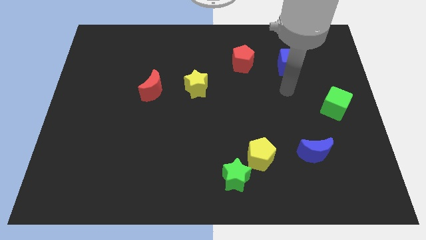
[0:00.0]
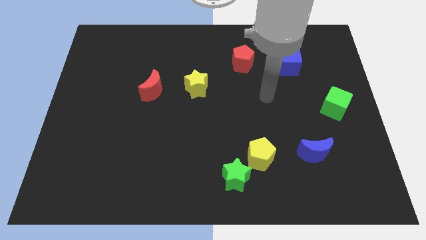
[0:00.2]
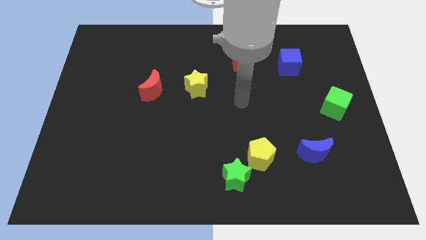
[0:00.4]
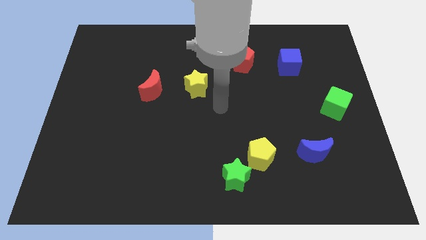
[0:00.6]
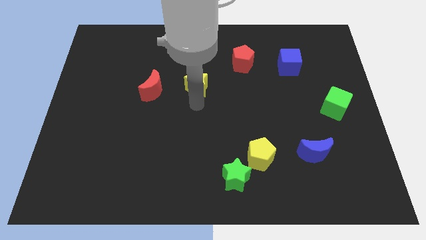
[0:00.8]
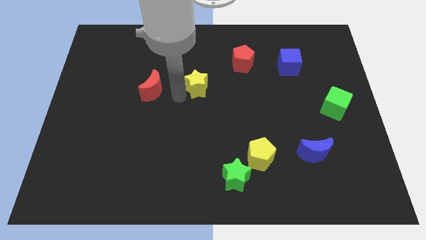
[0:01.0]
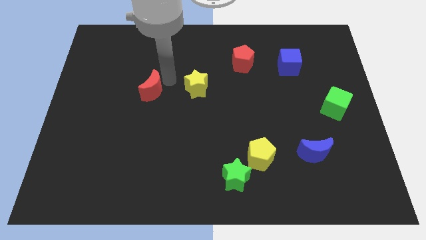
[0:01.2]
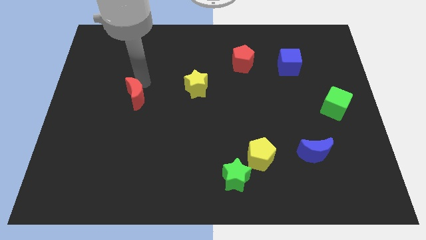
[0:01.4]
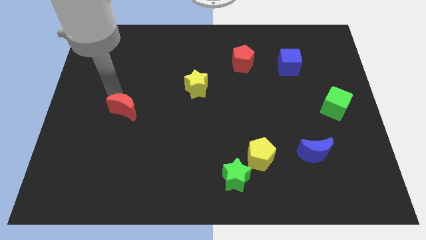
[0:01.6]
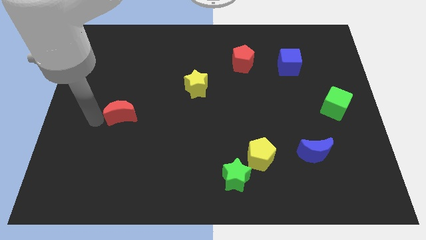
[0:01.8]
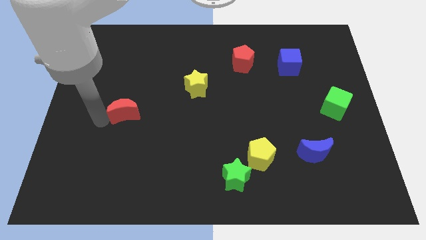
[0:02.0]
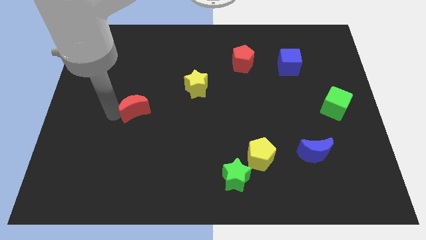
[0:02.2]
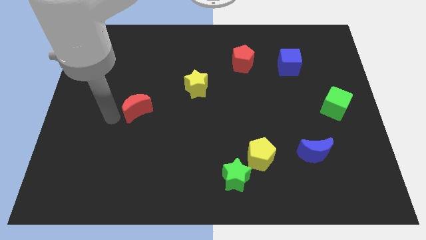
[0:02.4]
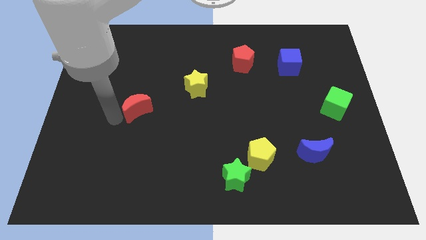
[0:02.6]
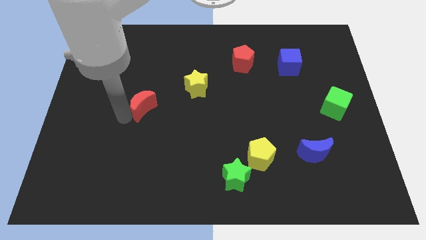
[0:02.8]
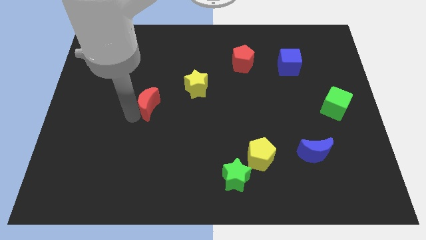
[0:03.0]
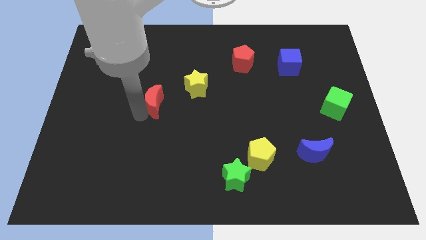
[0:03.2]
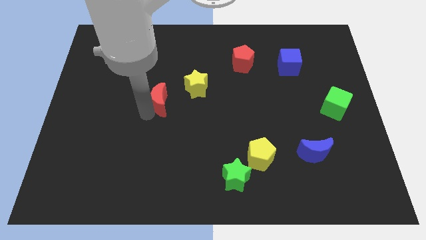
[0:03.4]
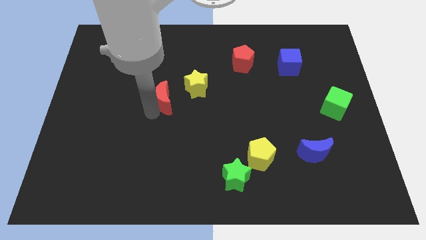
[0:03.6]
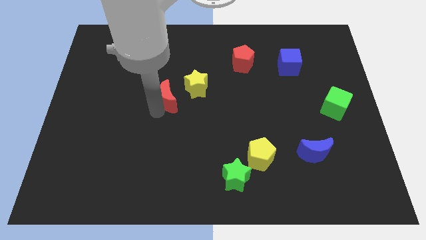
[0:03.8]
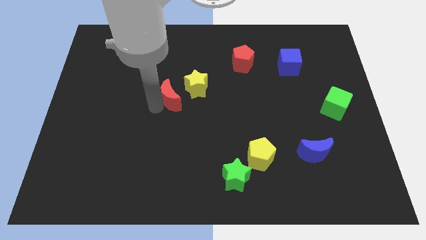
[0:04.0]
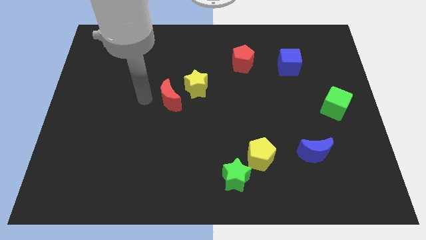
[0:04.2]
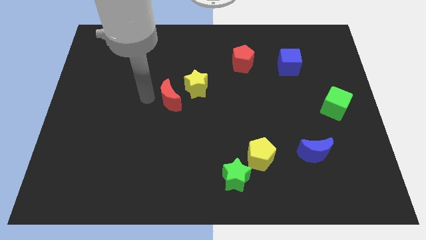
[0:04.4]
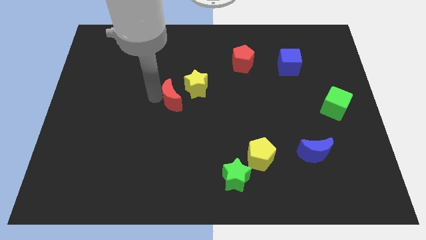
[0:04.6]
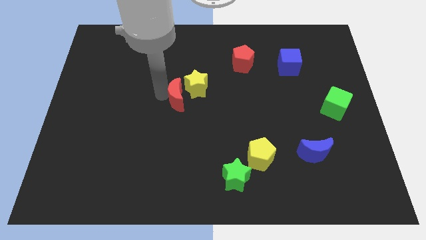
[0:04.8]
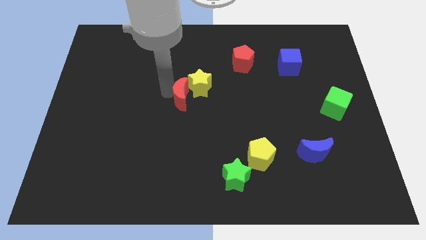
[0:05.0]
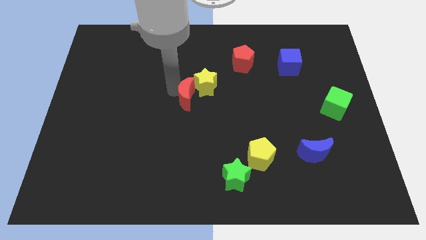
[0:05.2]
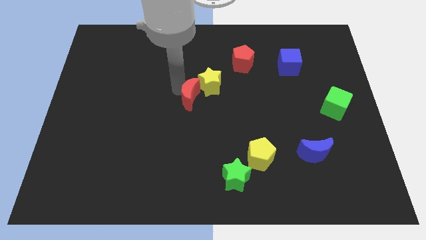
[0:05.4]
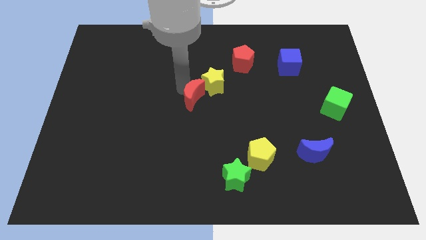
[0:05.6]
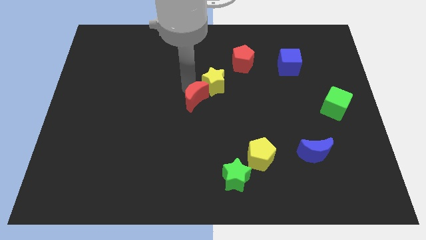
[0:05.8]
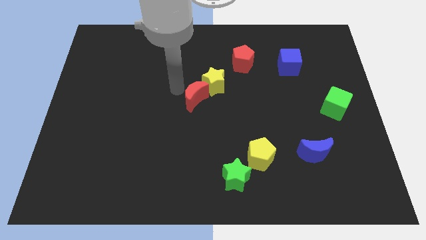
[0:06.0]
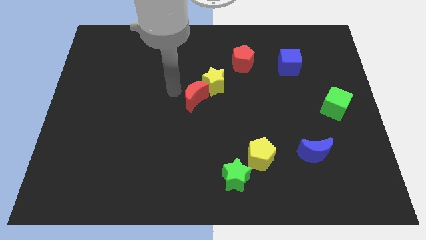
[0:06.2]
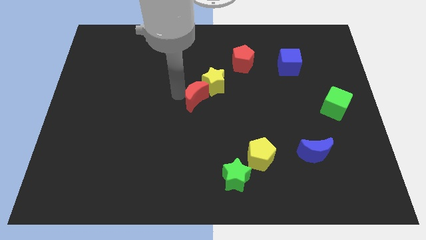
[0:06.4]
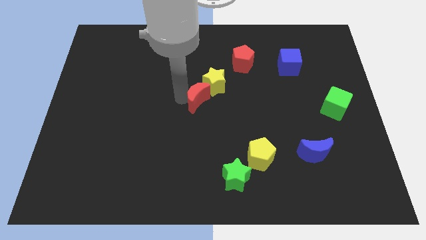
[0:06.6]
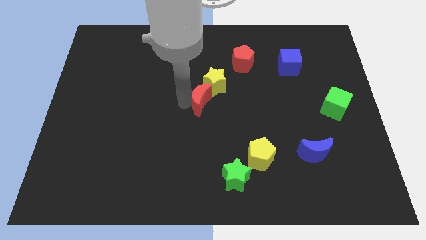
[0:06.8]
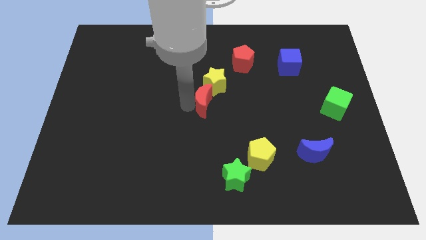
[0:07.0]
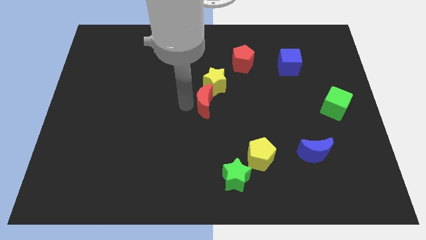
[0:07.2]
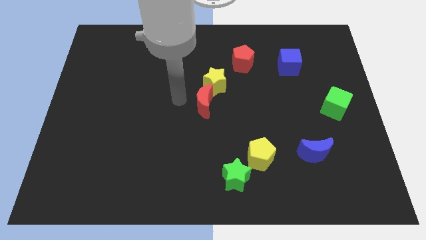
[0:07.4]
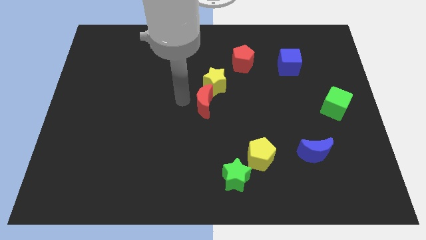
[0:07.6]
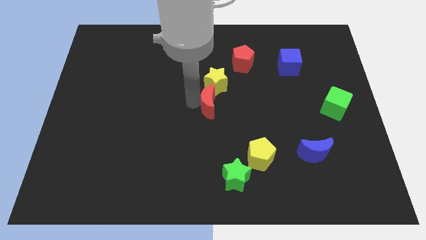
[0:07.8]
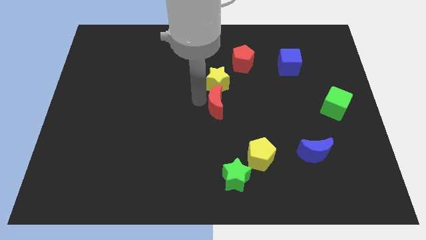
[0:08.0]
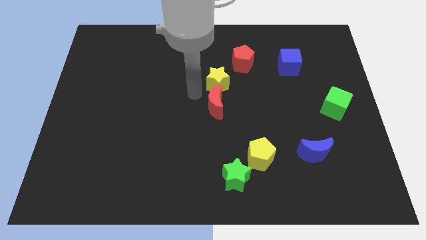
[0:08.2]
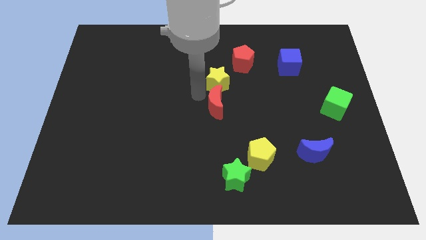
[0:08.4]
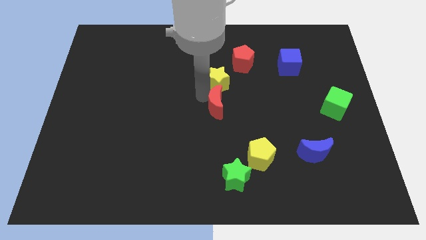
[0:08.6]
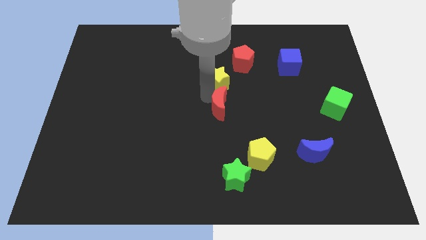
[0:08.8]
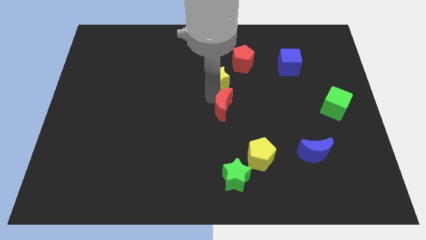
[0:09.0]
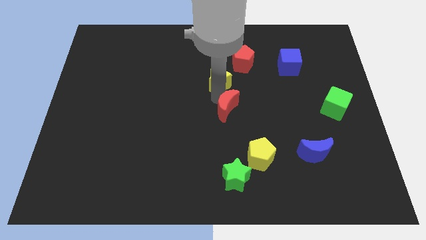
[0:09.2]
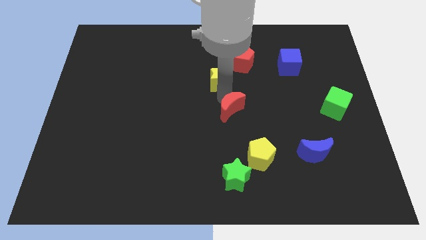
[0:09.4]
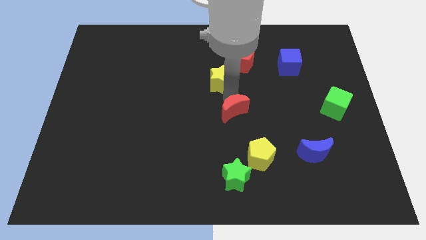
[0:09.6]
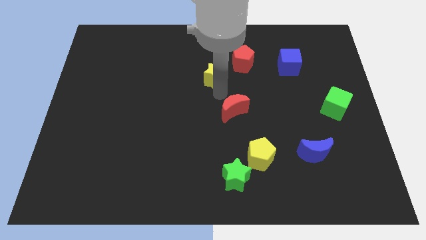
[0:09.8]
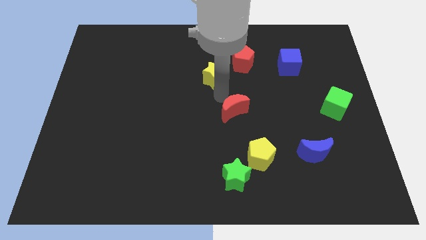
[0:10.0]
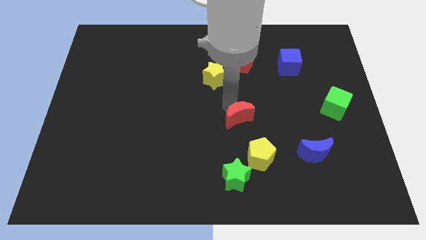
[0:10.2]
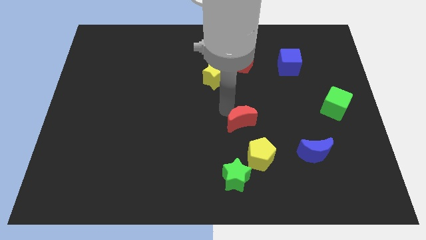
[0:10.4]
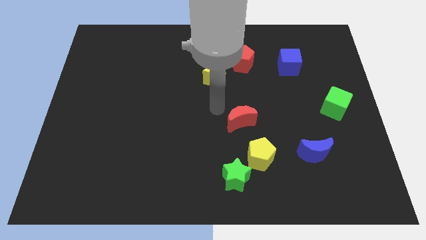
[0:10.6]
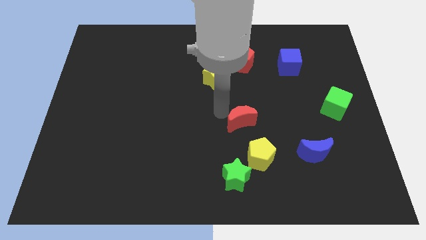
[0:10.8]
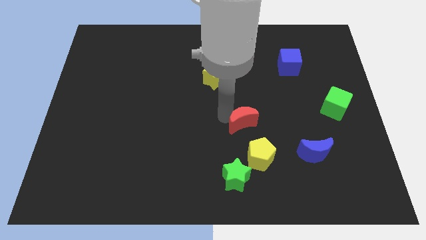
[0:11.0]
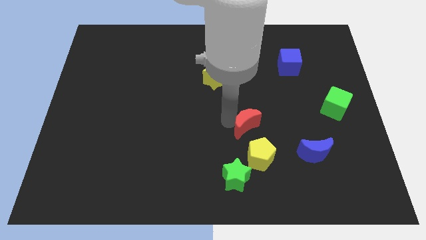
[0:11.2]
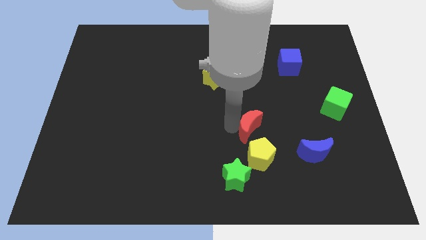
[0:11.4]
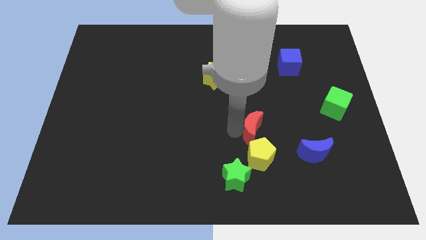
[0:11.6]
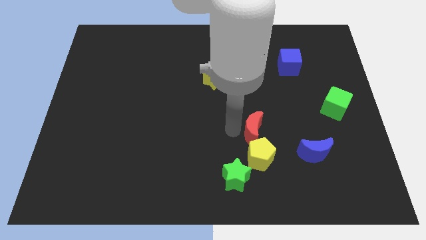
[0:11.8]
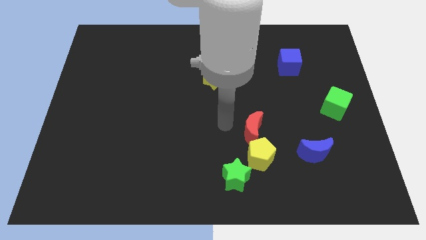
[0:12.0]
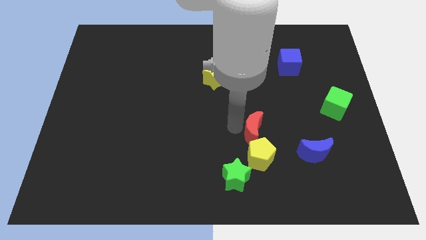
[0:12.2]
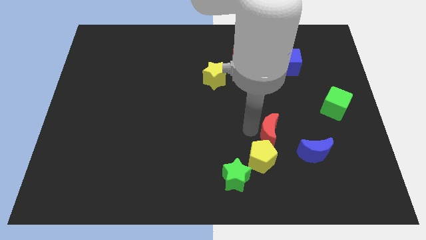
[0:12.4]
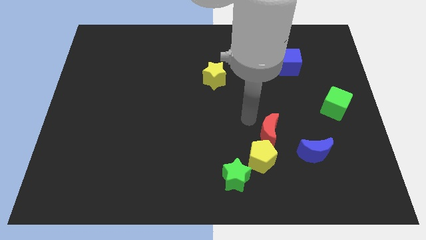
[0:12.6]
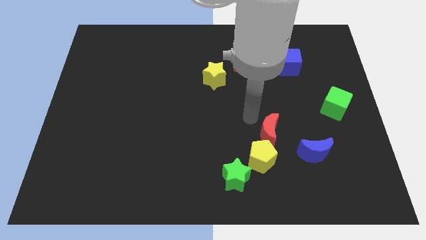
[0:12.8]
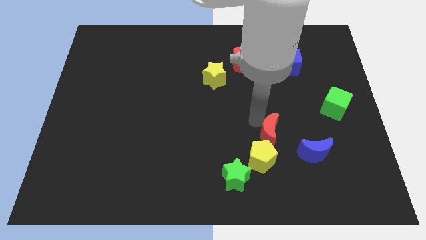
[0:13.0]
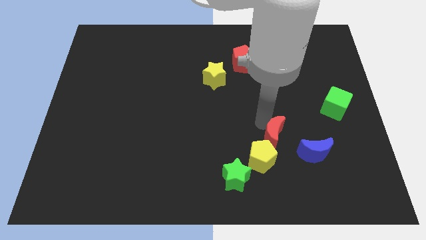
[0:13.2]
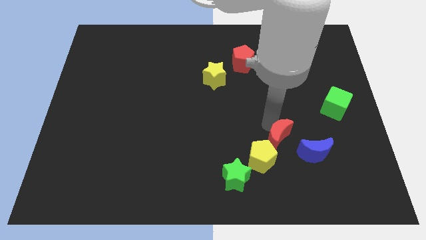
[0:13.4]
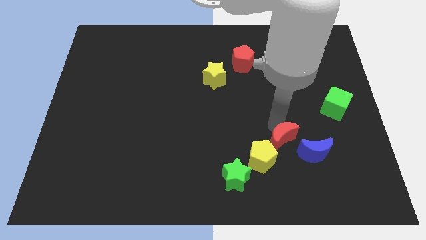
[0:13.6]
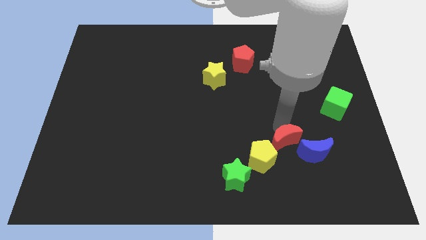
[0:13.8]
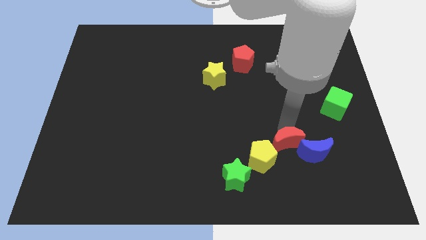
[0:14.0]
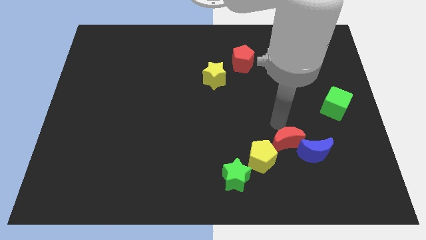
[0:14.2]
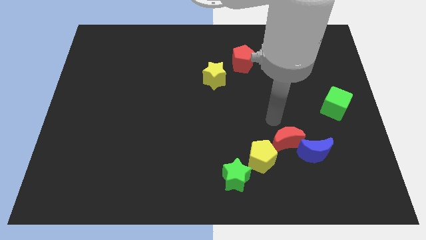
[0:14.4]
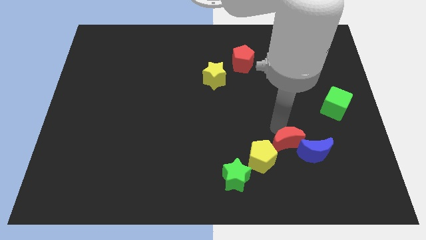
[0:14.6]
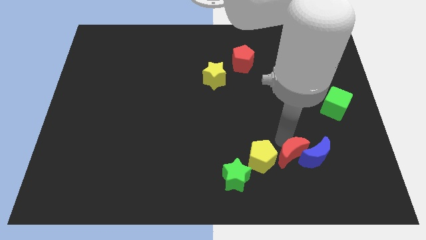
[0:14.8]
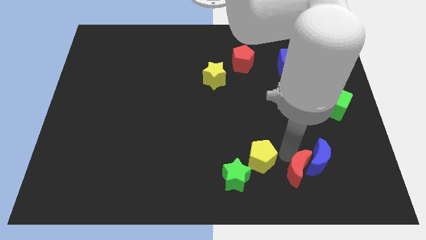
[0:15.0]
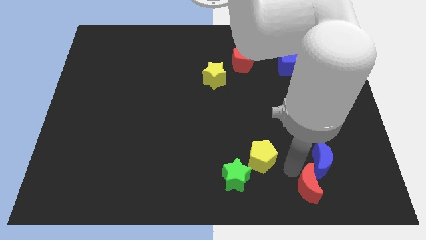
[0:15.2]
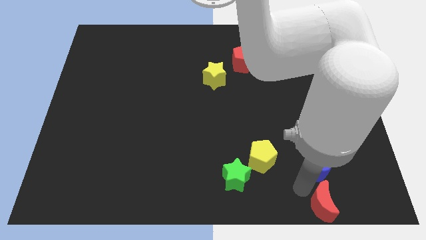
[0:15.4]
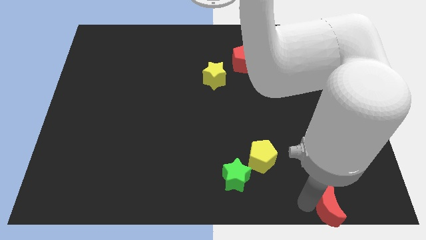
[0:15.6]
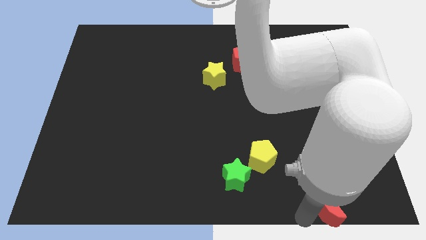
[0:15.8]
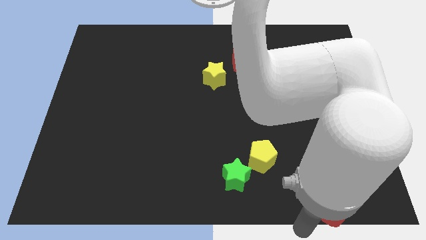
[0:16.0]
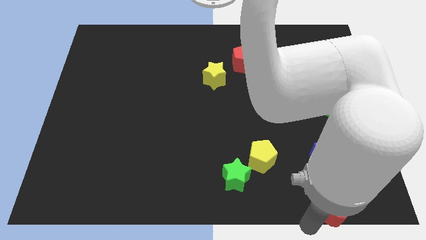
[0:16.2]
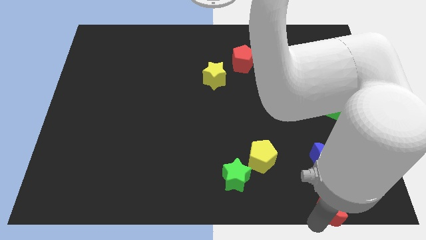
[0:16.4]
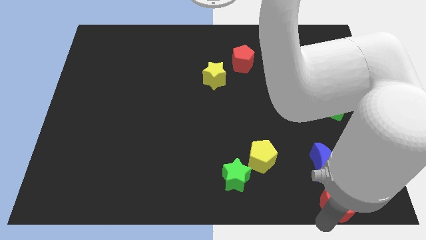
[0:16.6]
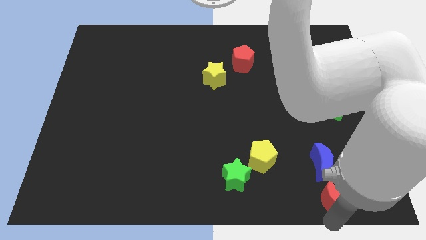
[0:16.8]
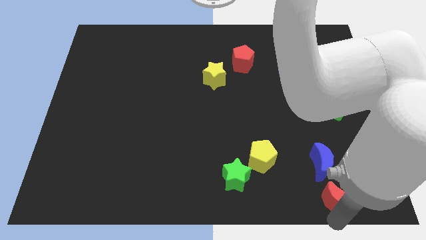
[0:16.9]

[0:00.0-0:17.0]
put the red moon to the bottom right side of the blue moon
